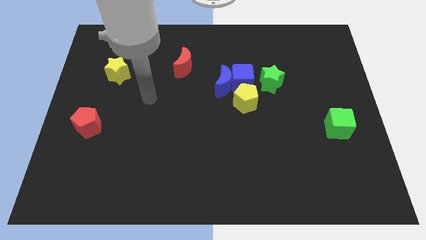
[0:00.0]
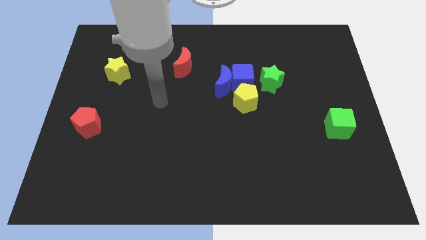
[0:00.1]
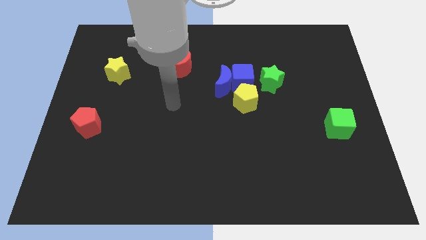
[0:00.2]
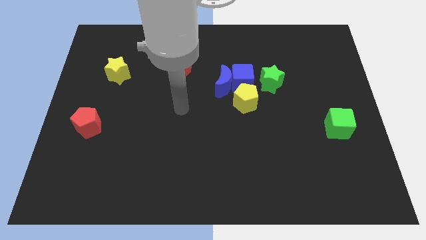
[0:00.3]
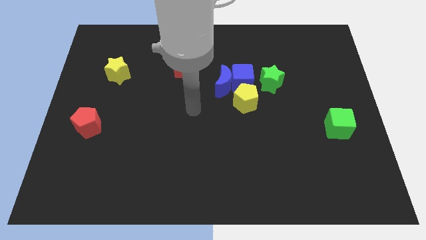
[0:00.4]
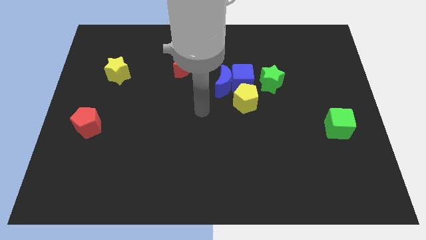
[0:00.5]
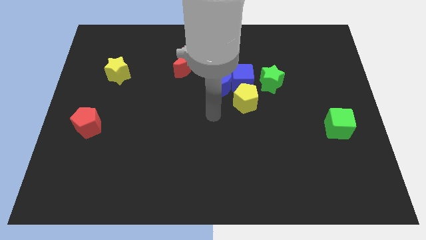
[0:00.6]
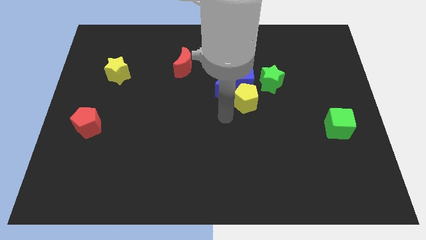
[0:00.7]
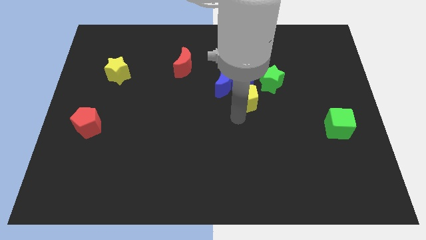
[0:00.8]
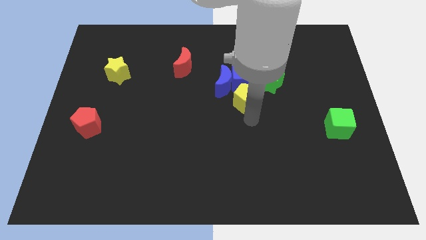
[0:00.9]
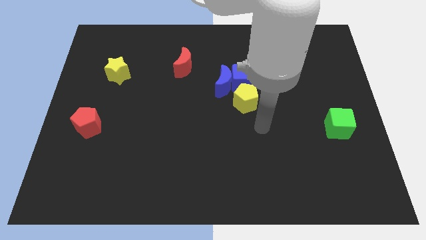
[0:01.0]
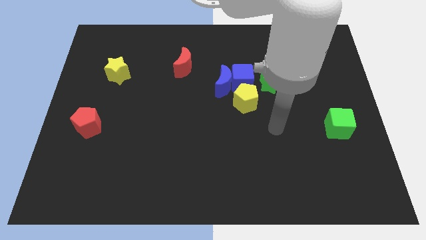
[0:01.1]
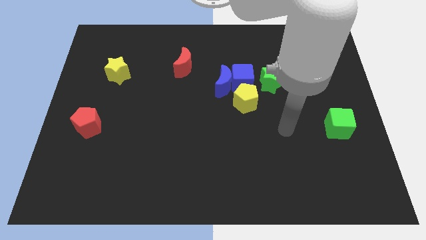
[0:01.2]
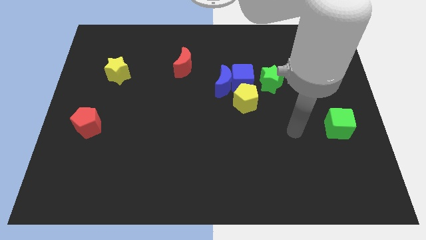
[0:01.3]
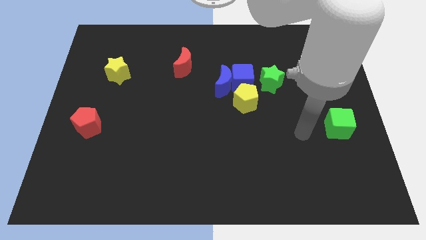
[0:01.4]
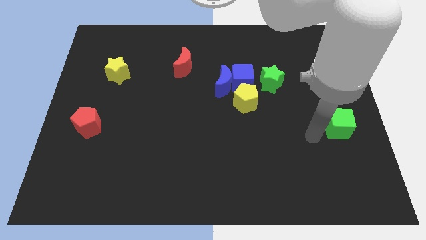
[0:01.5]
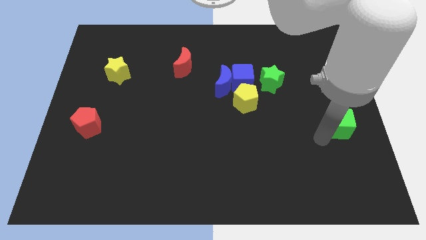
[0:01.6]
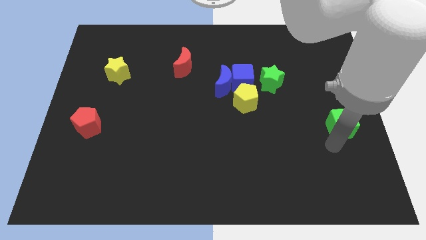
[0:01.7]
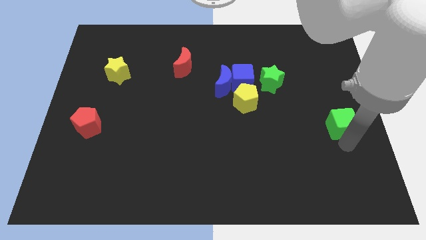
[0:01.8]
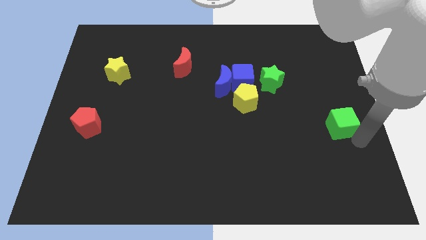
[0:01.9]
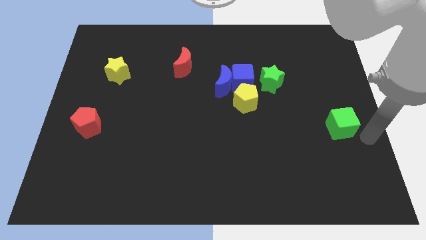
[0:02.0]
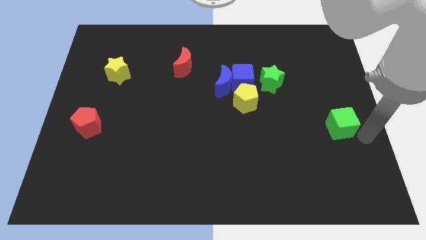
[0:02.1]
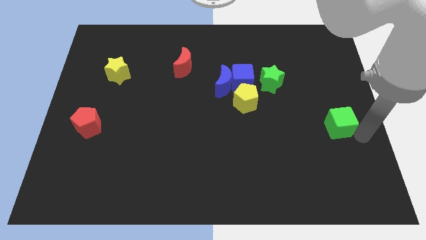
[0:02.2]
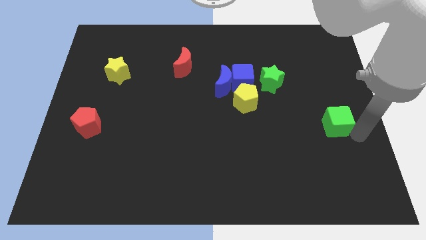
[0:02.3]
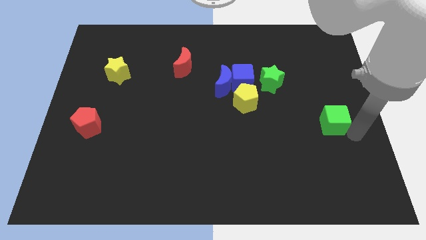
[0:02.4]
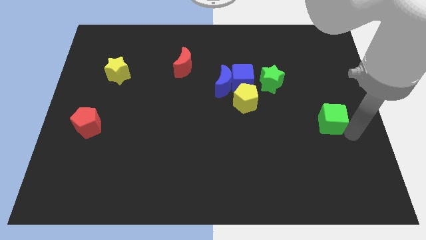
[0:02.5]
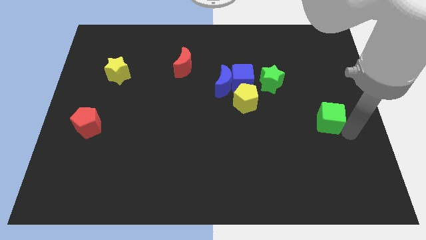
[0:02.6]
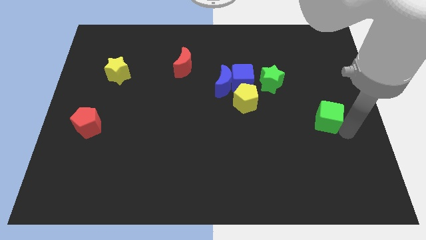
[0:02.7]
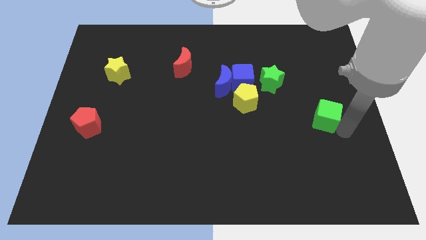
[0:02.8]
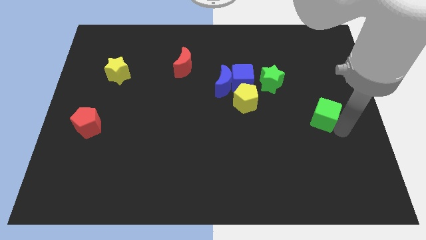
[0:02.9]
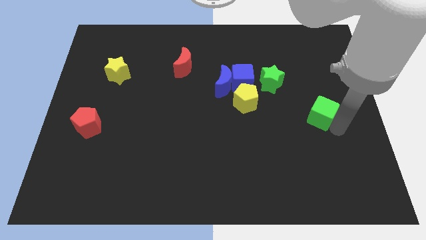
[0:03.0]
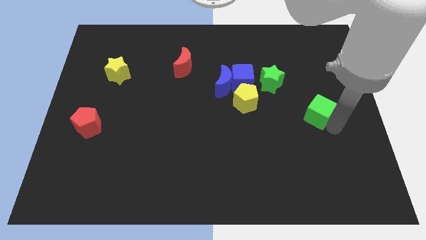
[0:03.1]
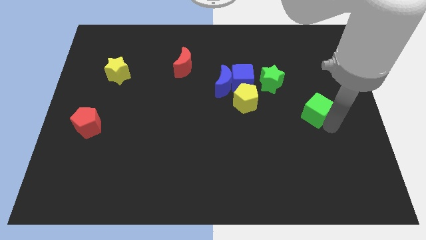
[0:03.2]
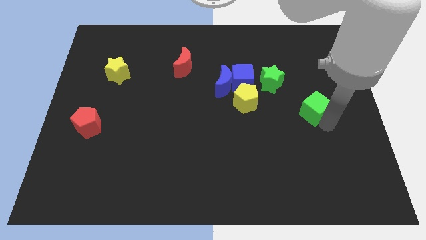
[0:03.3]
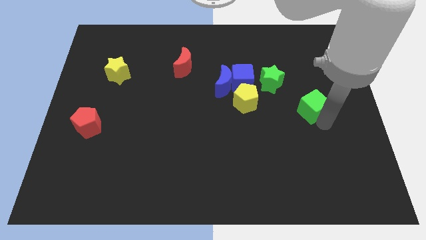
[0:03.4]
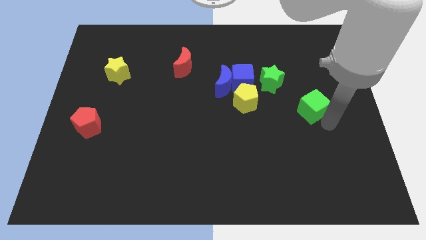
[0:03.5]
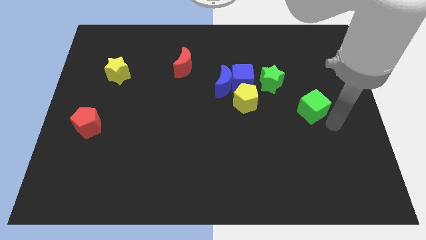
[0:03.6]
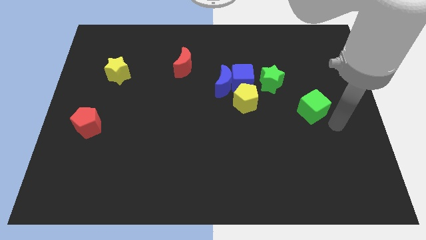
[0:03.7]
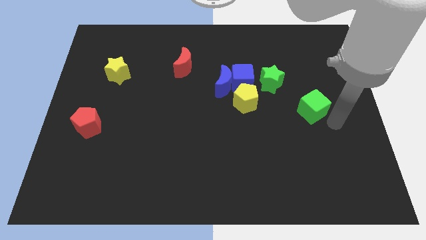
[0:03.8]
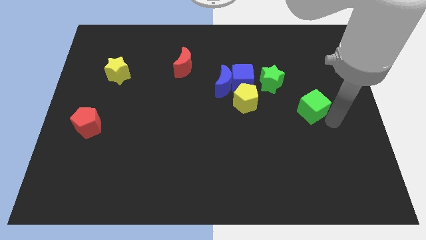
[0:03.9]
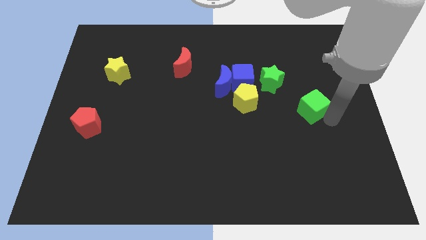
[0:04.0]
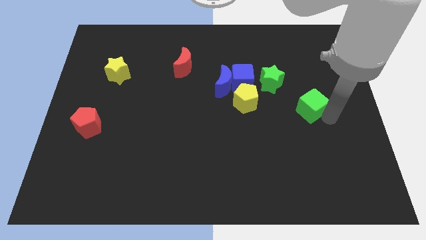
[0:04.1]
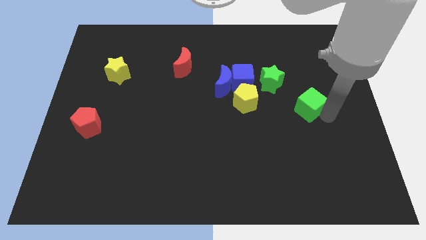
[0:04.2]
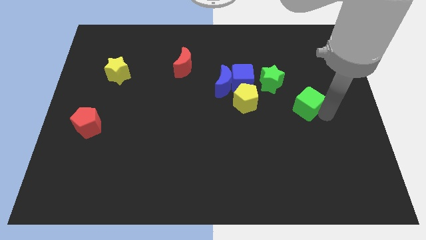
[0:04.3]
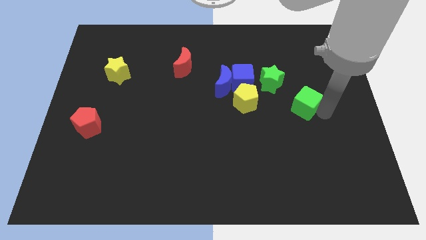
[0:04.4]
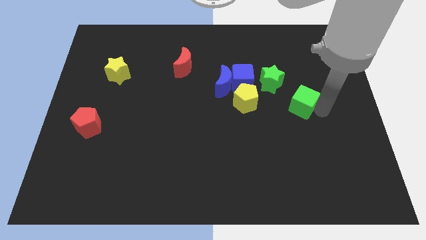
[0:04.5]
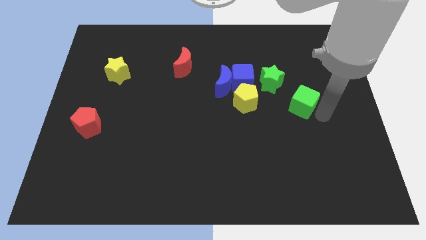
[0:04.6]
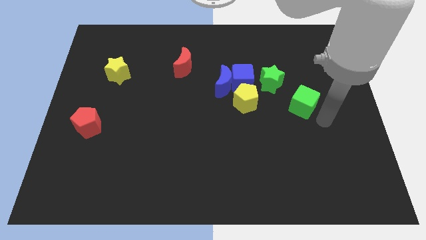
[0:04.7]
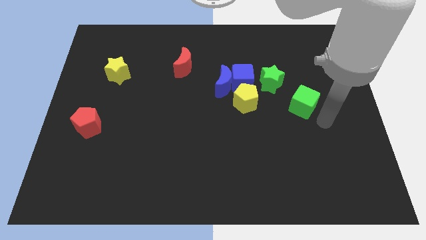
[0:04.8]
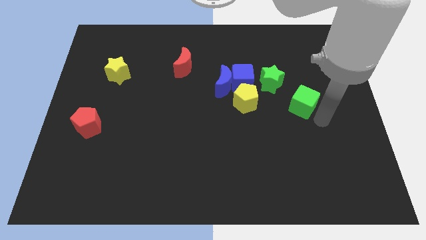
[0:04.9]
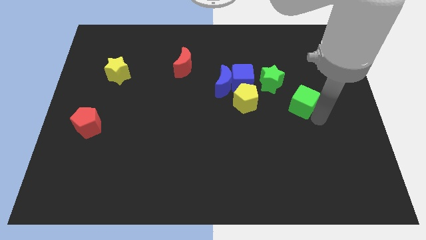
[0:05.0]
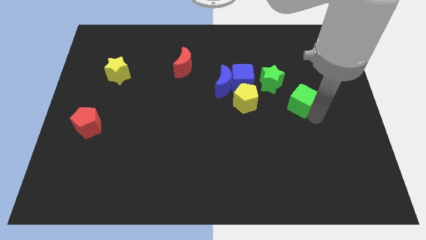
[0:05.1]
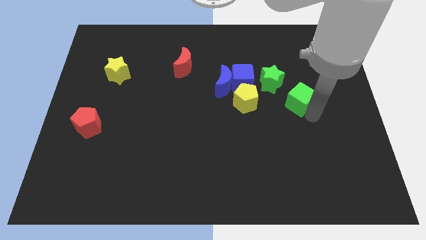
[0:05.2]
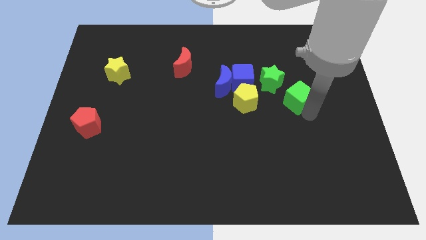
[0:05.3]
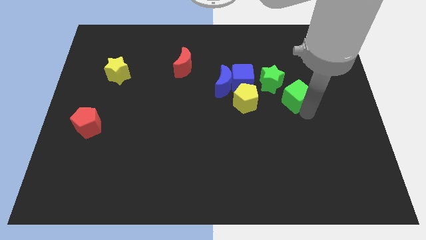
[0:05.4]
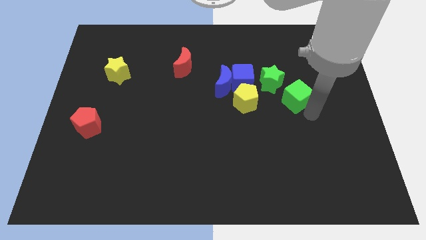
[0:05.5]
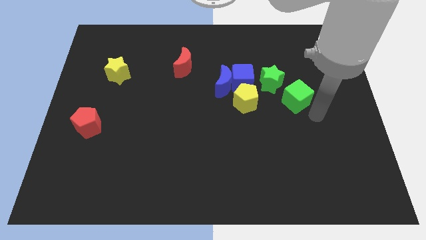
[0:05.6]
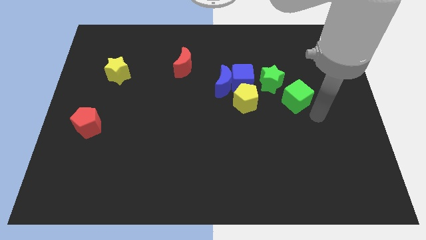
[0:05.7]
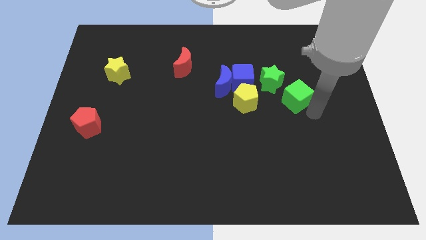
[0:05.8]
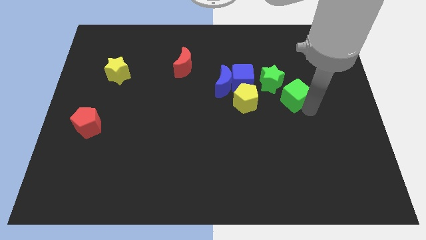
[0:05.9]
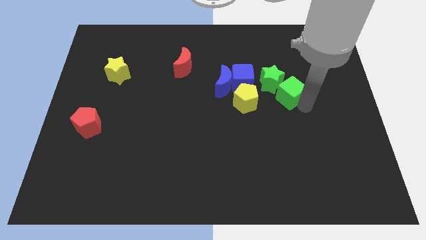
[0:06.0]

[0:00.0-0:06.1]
slide the green cube towards the green star
